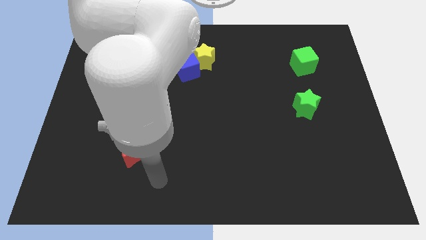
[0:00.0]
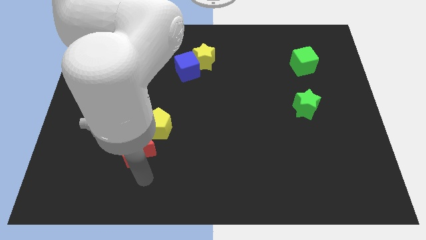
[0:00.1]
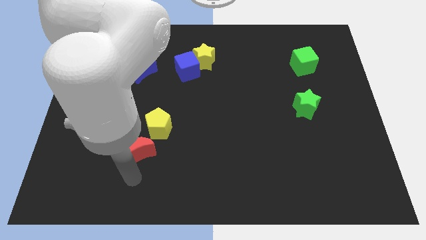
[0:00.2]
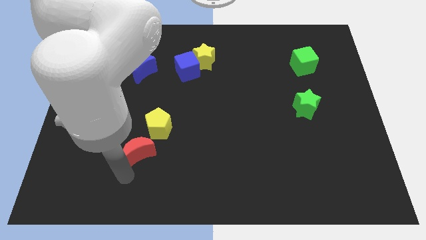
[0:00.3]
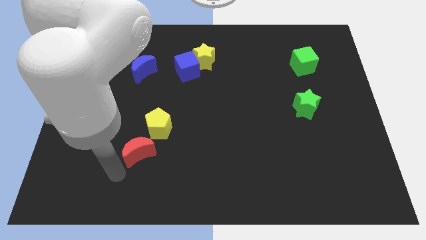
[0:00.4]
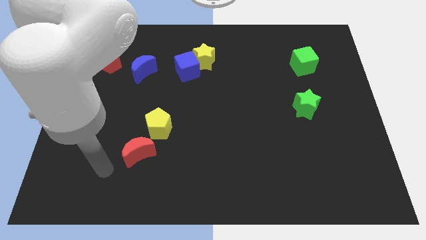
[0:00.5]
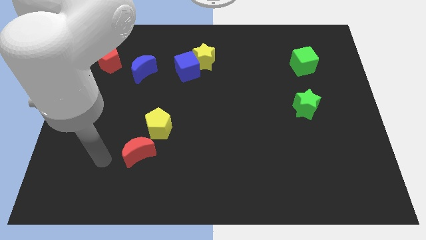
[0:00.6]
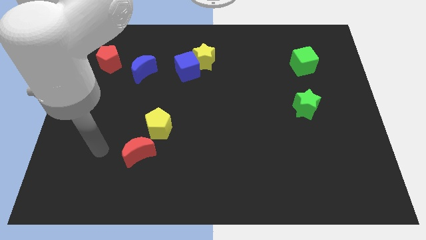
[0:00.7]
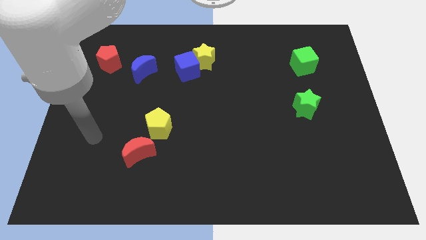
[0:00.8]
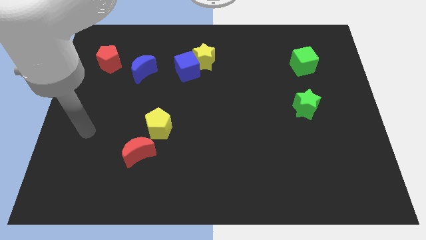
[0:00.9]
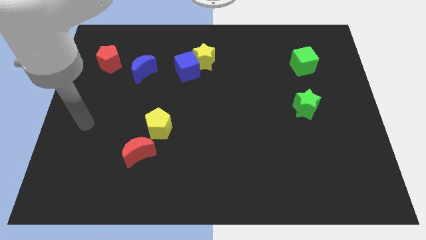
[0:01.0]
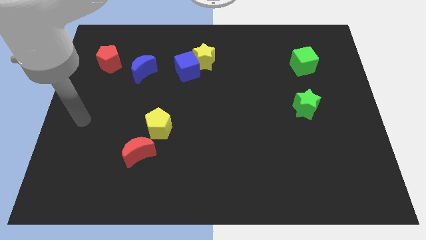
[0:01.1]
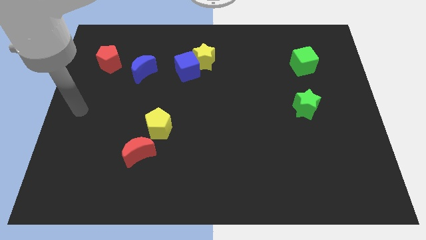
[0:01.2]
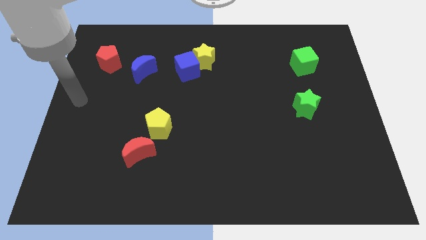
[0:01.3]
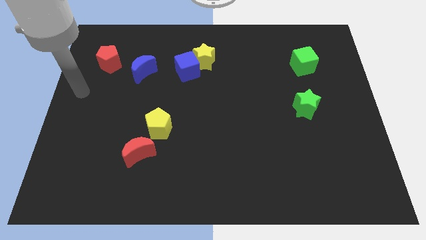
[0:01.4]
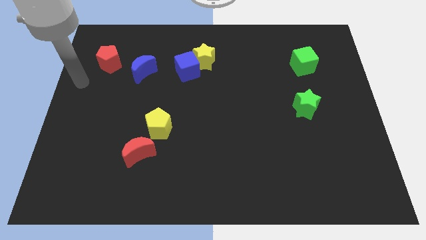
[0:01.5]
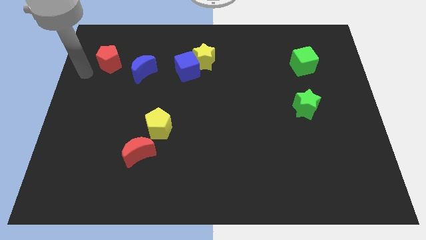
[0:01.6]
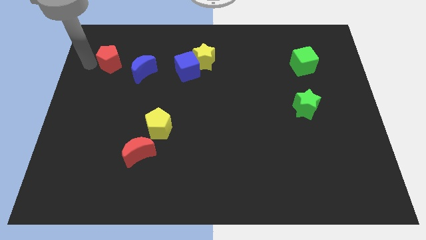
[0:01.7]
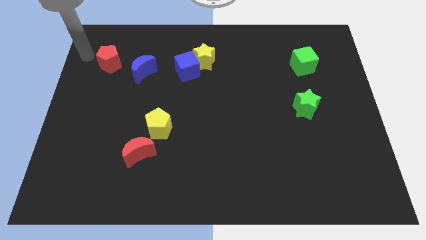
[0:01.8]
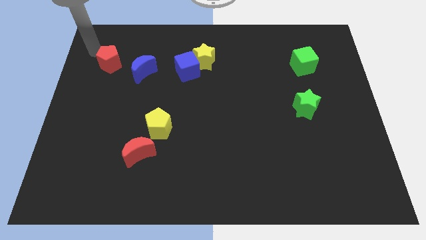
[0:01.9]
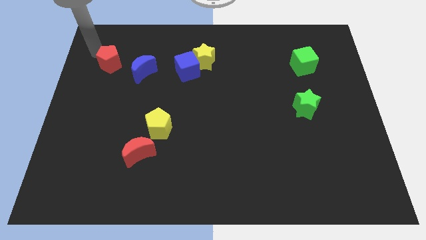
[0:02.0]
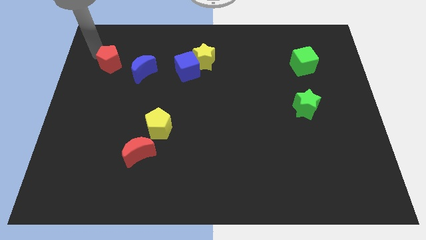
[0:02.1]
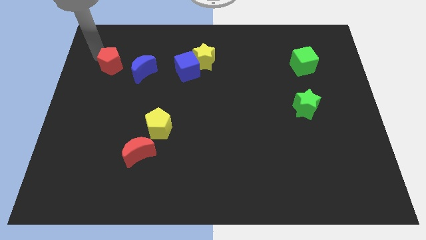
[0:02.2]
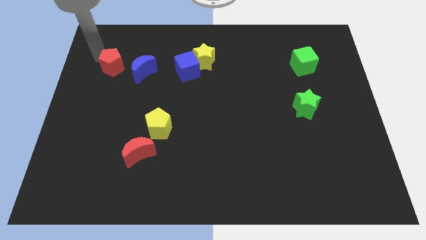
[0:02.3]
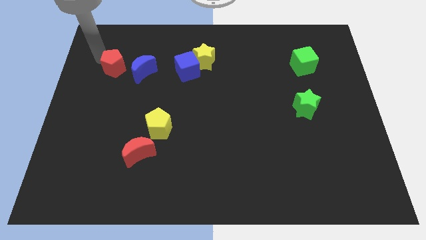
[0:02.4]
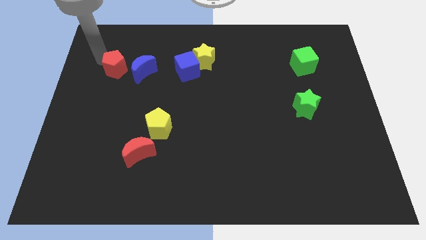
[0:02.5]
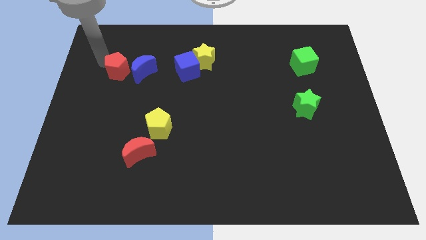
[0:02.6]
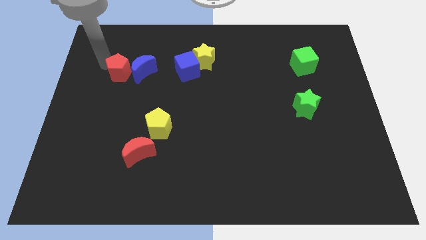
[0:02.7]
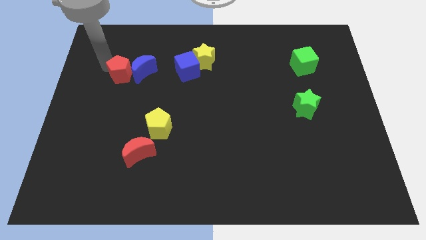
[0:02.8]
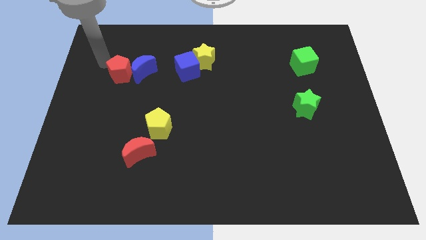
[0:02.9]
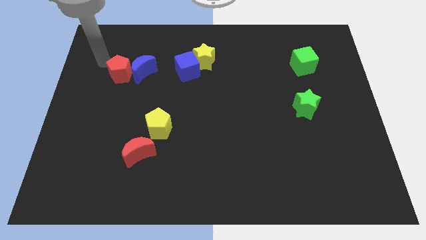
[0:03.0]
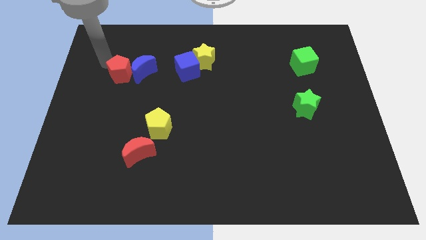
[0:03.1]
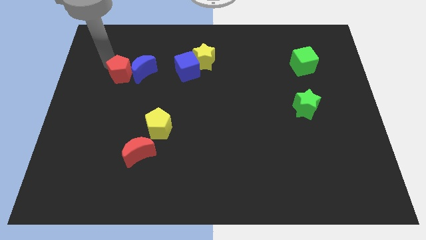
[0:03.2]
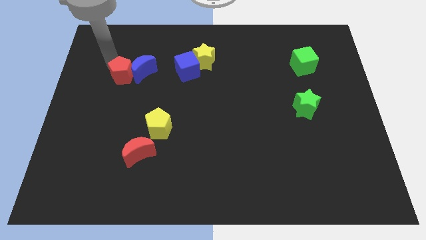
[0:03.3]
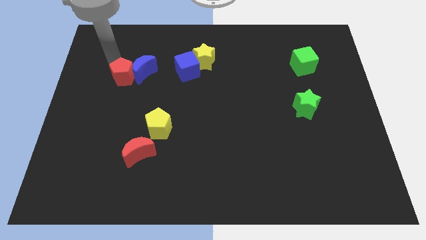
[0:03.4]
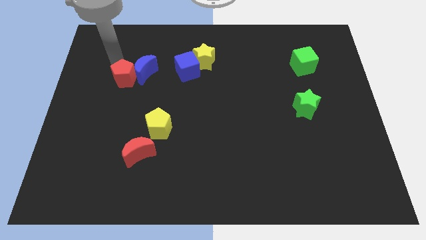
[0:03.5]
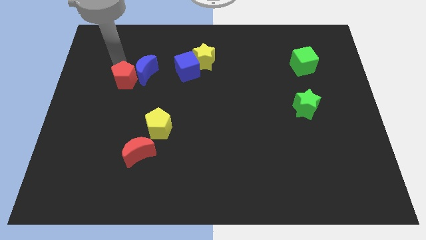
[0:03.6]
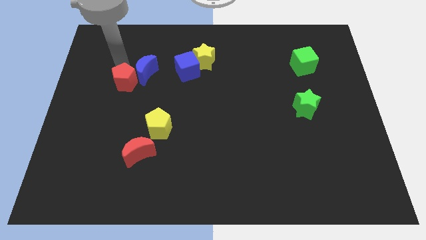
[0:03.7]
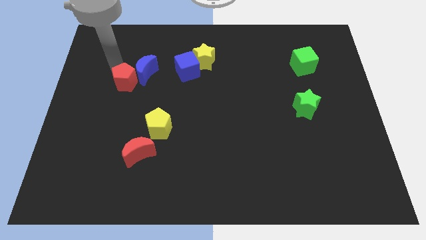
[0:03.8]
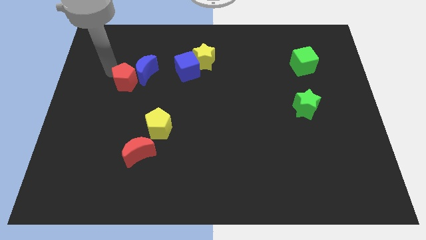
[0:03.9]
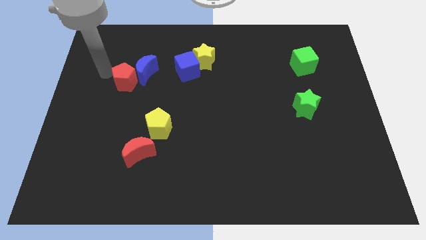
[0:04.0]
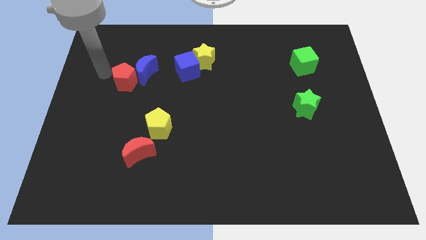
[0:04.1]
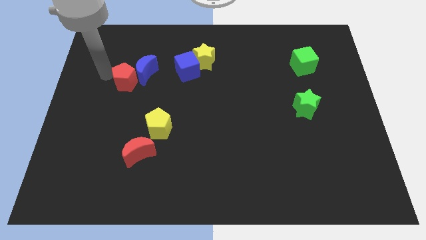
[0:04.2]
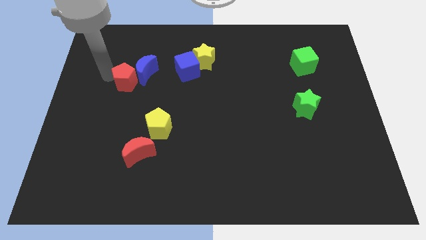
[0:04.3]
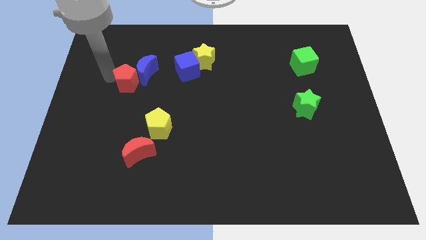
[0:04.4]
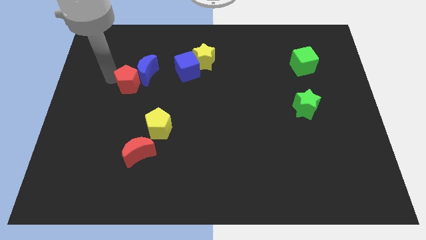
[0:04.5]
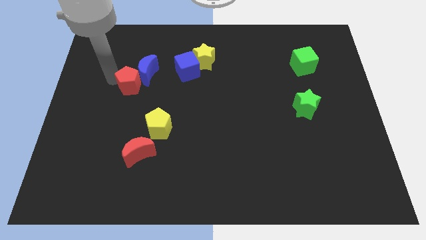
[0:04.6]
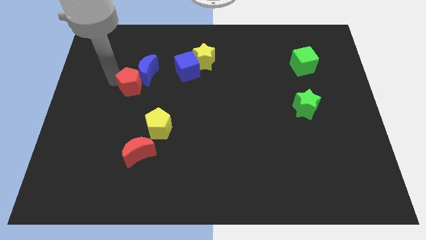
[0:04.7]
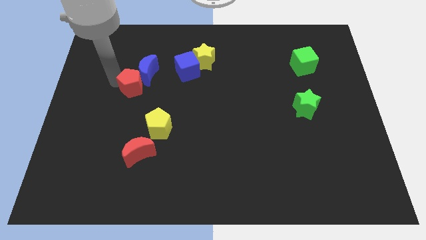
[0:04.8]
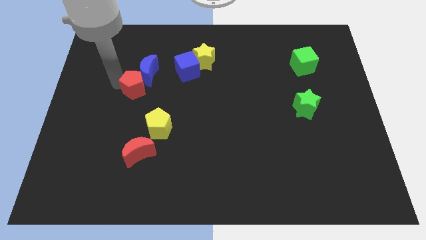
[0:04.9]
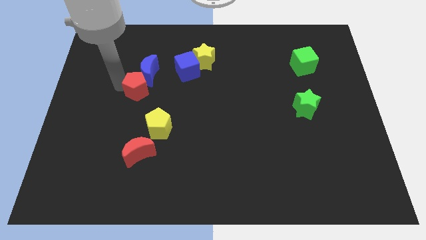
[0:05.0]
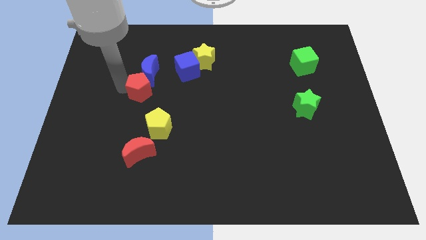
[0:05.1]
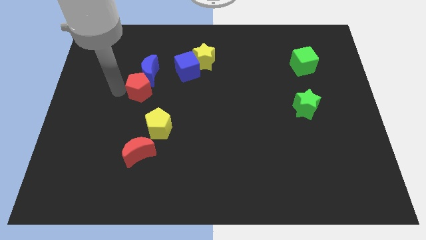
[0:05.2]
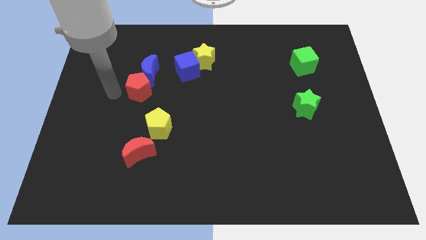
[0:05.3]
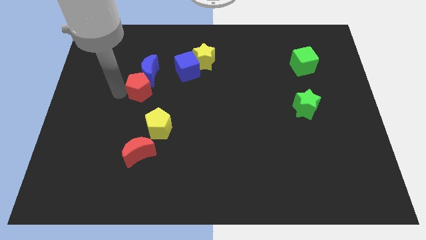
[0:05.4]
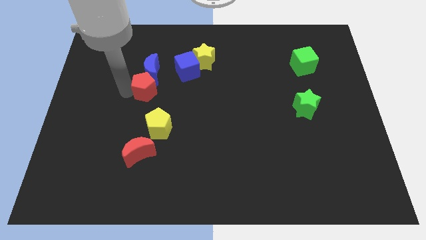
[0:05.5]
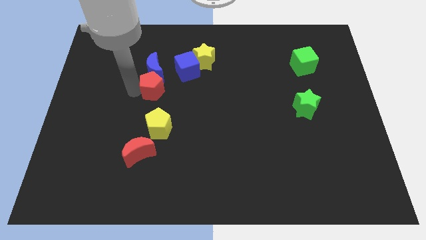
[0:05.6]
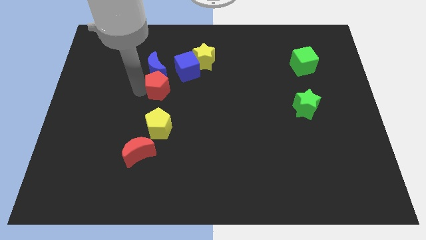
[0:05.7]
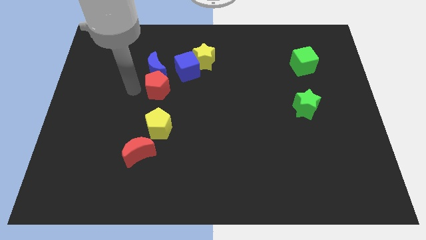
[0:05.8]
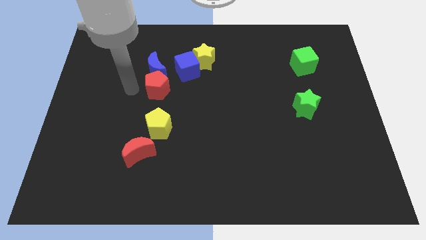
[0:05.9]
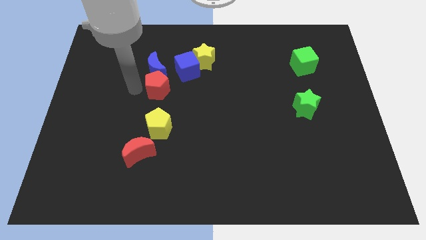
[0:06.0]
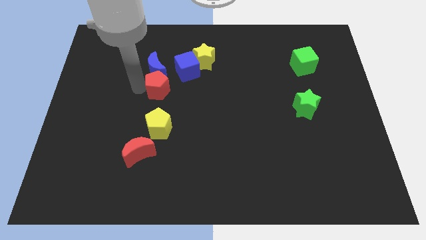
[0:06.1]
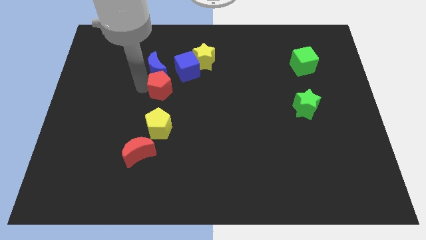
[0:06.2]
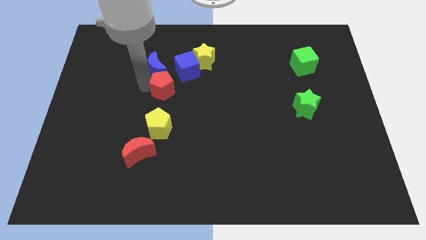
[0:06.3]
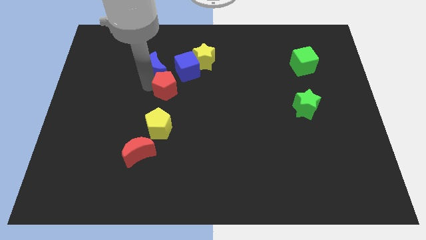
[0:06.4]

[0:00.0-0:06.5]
move the red pentagon to the middle of the board
